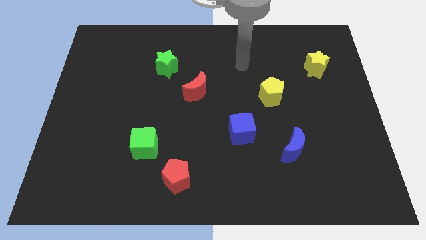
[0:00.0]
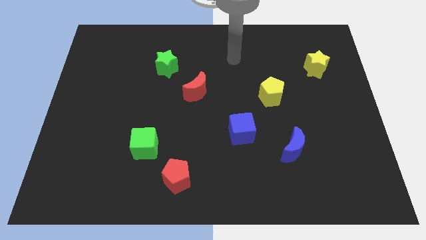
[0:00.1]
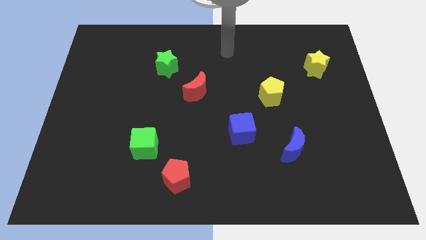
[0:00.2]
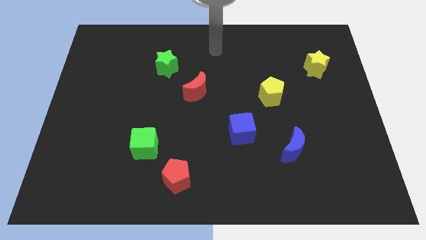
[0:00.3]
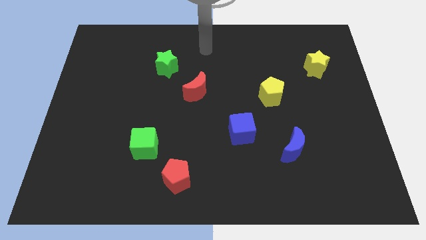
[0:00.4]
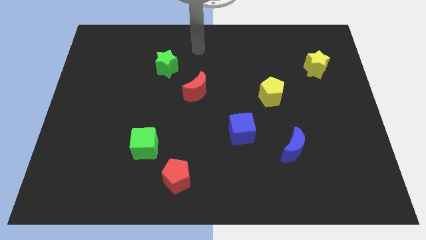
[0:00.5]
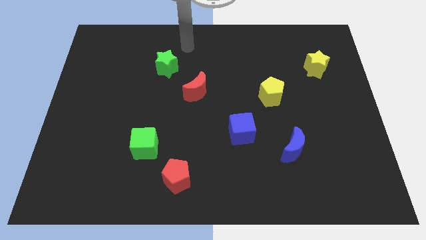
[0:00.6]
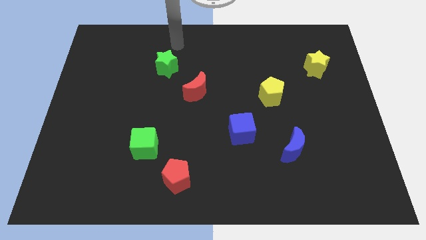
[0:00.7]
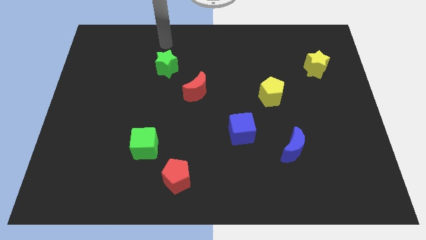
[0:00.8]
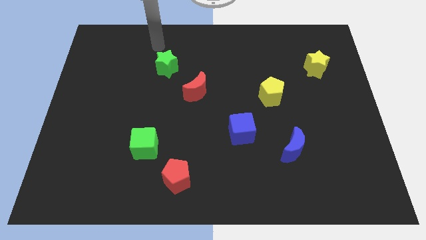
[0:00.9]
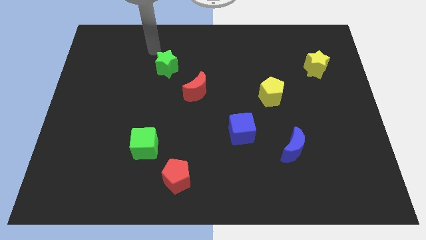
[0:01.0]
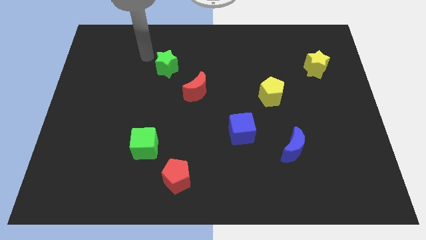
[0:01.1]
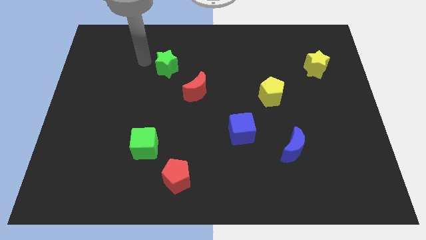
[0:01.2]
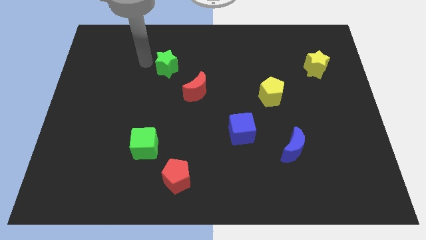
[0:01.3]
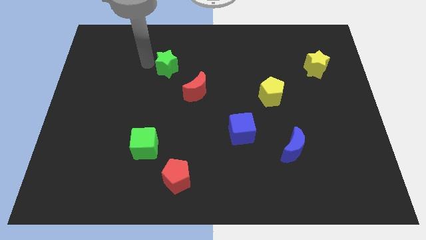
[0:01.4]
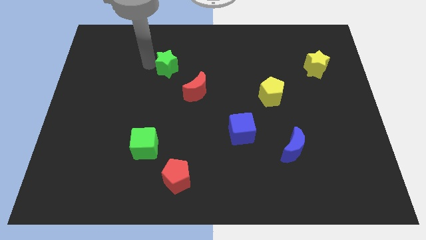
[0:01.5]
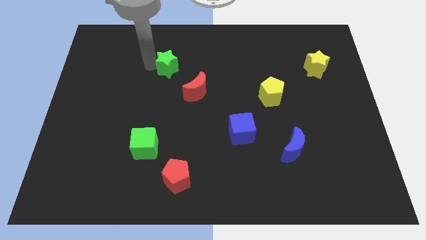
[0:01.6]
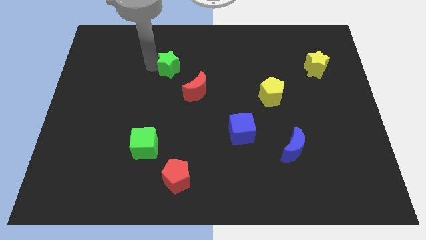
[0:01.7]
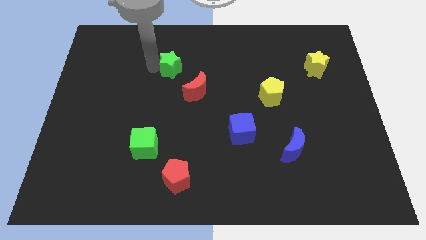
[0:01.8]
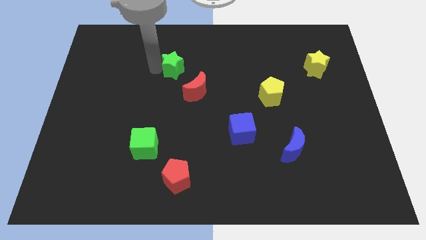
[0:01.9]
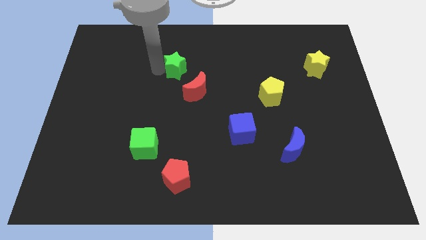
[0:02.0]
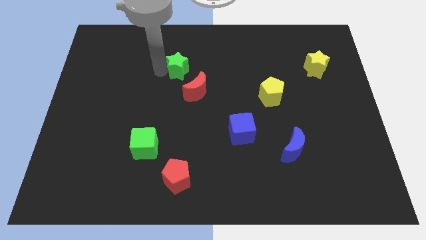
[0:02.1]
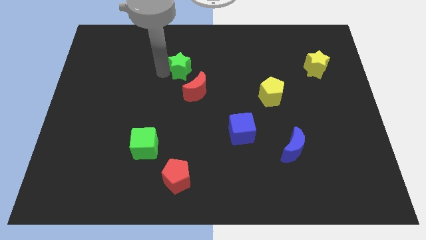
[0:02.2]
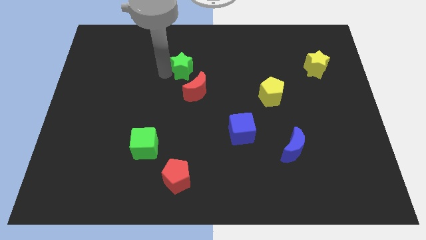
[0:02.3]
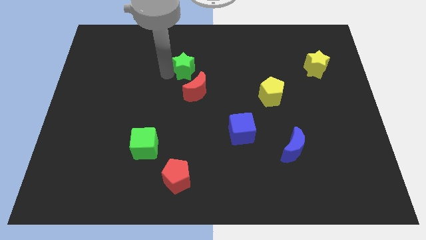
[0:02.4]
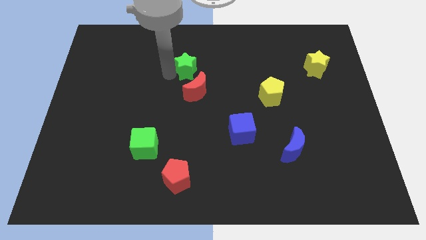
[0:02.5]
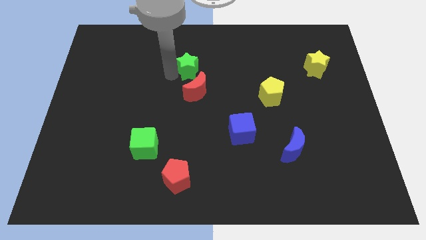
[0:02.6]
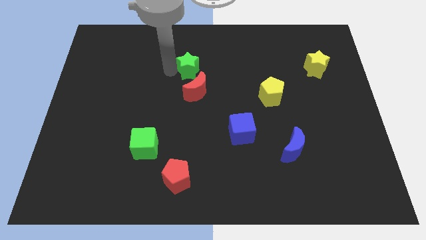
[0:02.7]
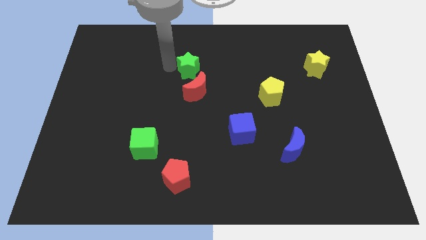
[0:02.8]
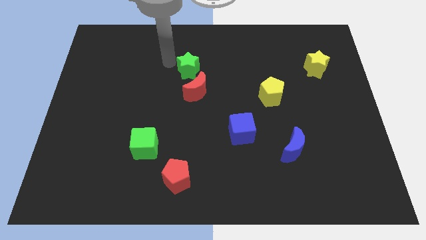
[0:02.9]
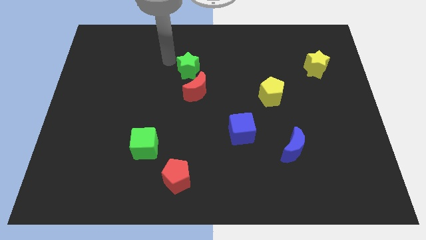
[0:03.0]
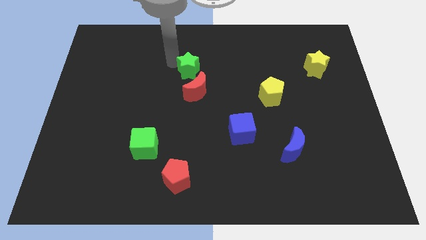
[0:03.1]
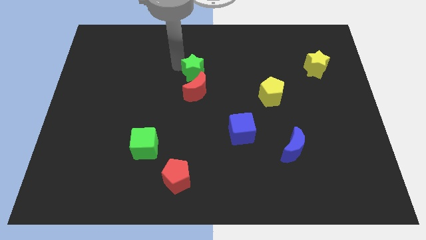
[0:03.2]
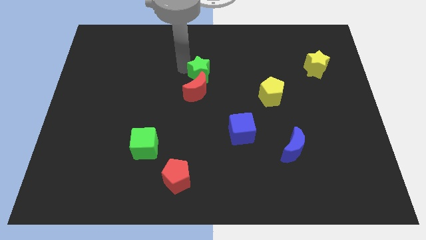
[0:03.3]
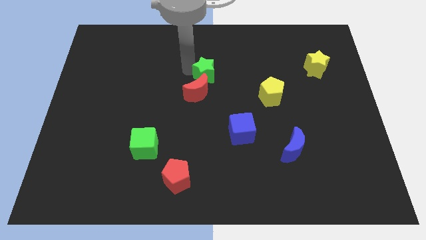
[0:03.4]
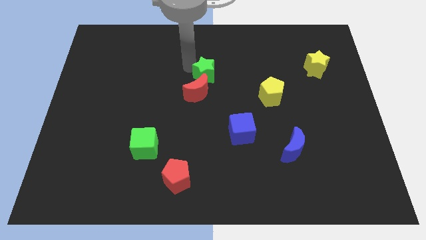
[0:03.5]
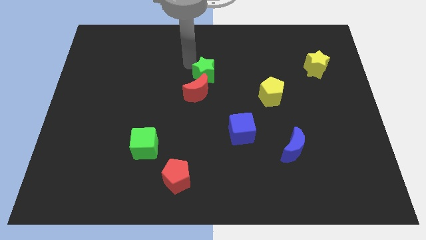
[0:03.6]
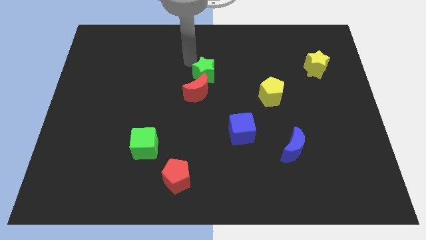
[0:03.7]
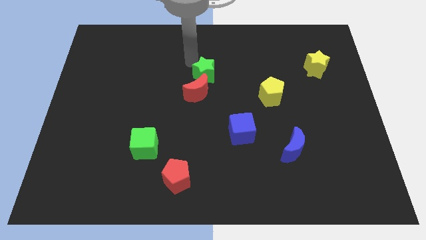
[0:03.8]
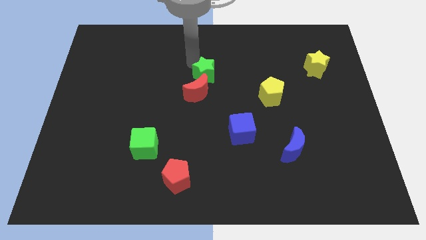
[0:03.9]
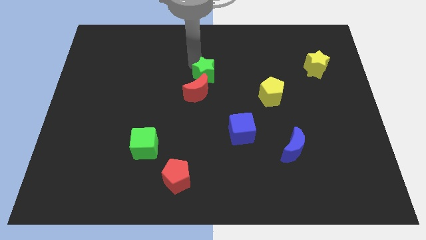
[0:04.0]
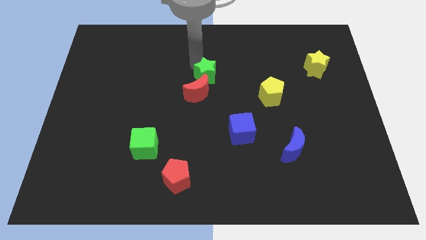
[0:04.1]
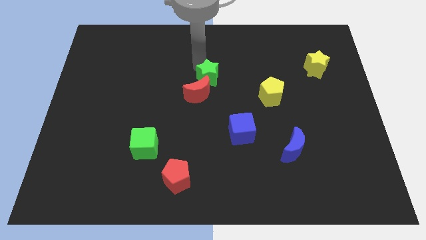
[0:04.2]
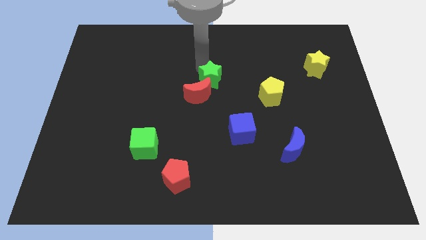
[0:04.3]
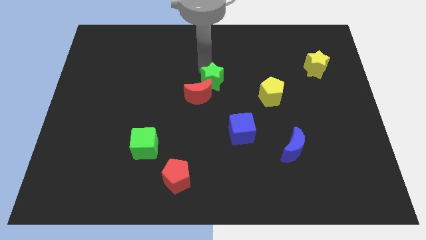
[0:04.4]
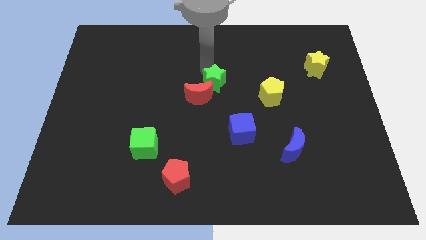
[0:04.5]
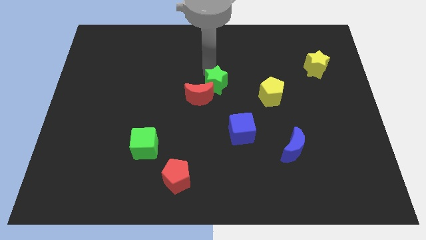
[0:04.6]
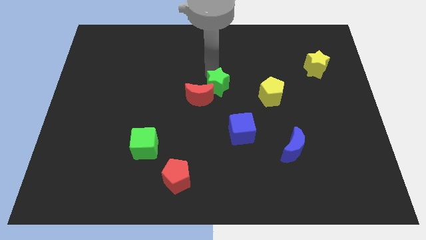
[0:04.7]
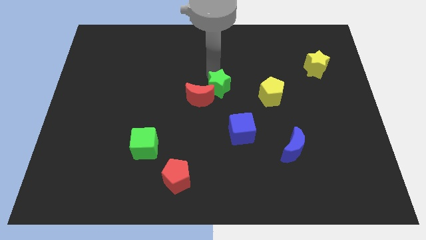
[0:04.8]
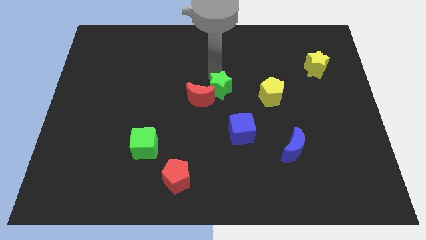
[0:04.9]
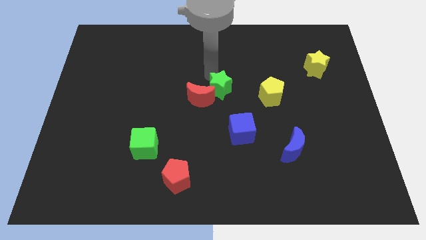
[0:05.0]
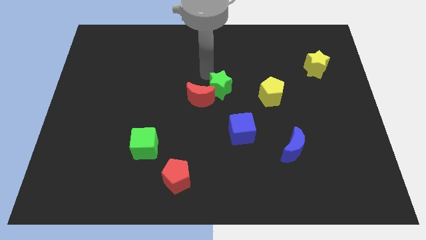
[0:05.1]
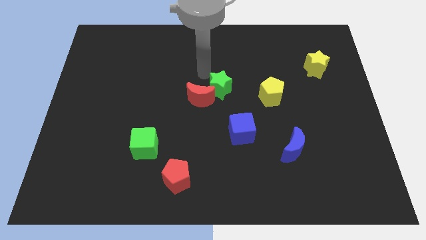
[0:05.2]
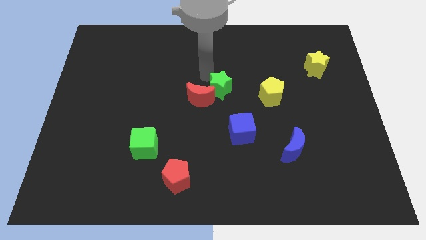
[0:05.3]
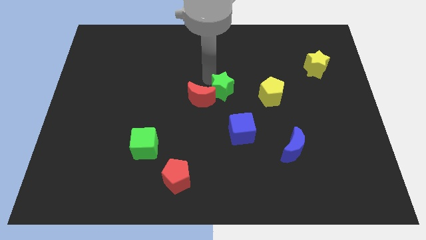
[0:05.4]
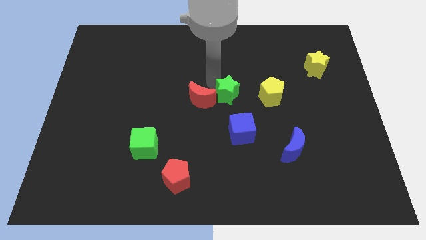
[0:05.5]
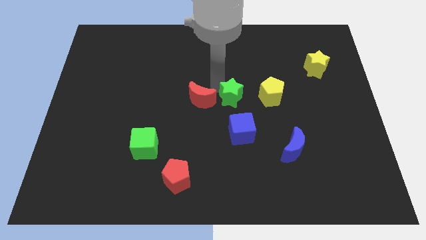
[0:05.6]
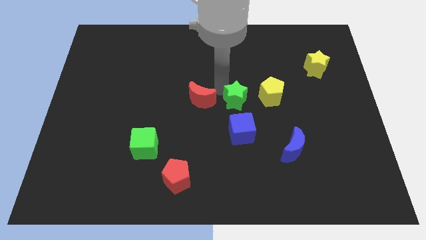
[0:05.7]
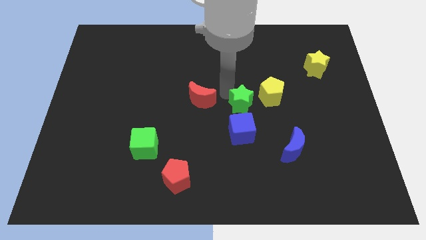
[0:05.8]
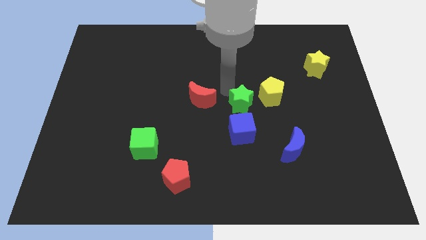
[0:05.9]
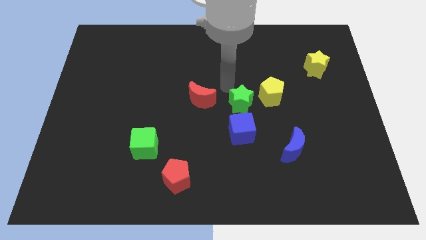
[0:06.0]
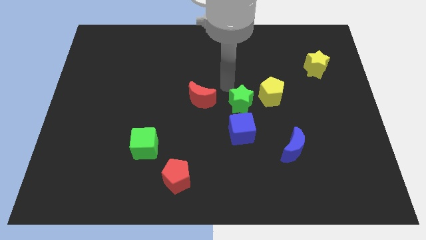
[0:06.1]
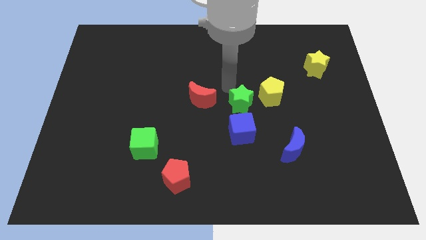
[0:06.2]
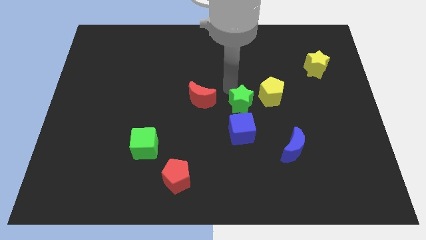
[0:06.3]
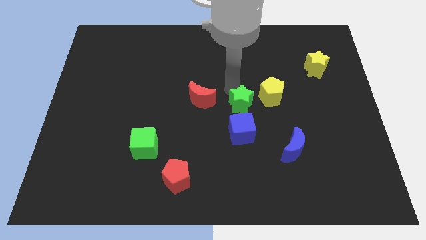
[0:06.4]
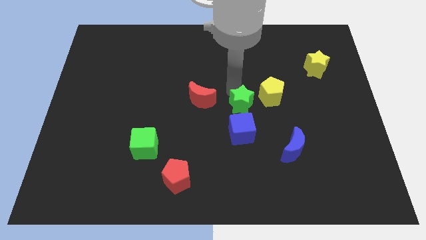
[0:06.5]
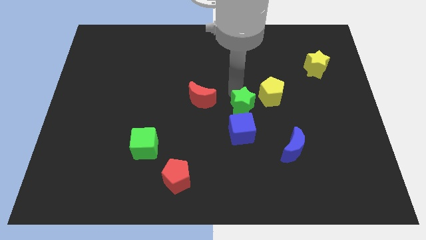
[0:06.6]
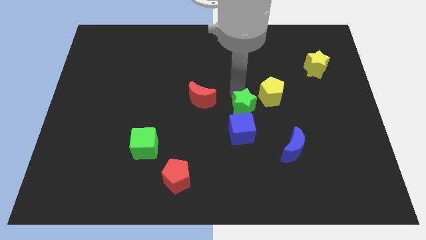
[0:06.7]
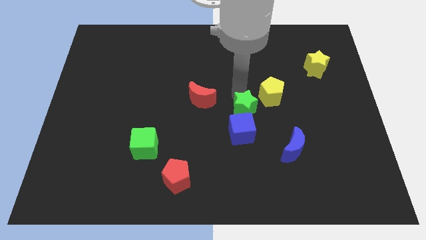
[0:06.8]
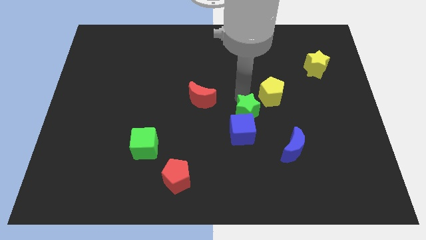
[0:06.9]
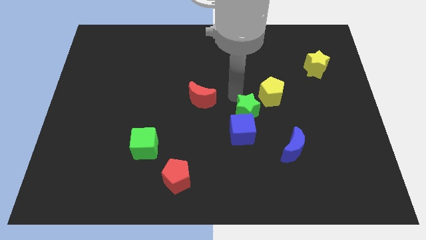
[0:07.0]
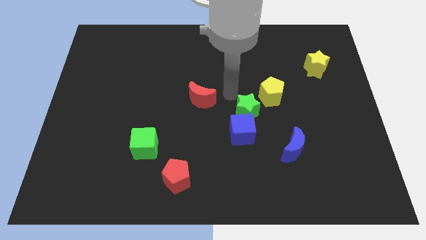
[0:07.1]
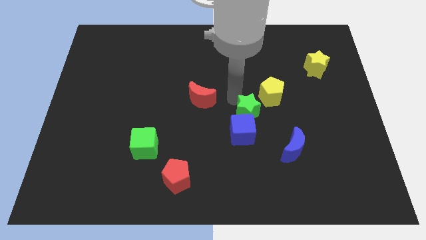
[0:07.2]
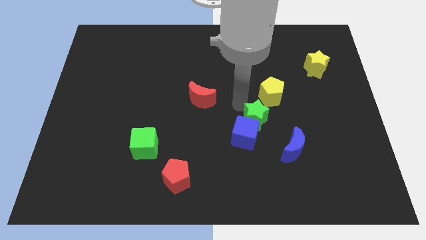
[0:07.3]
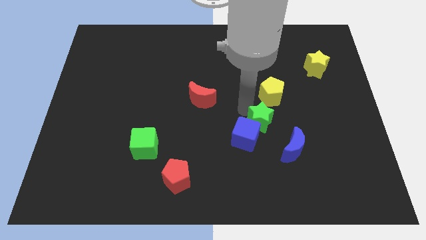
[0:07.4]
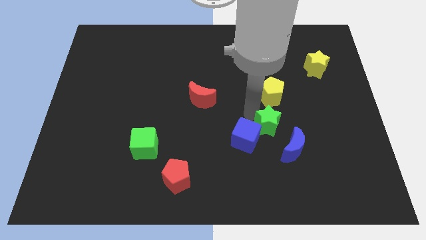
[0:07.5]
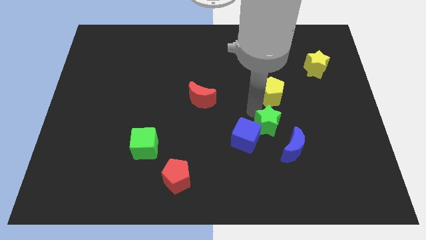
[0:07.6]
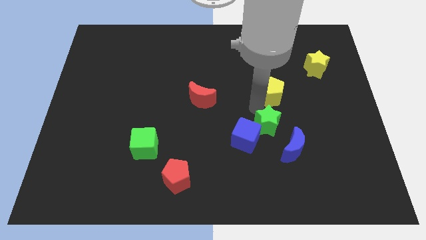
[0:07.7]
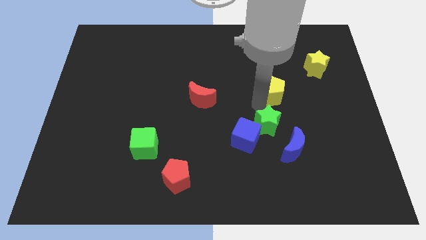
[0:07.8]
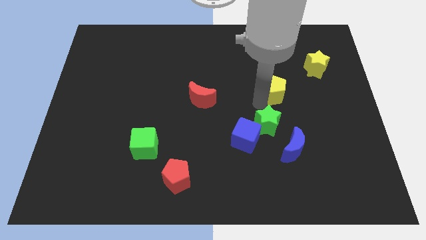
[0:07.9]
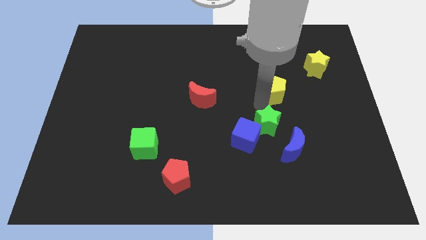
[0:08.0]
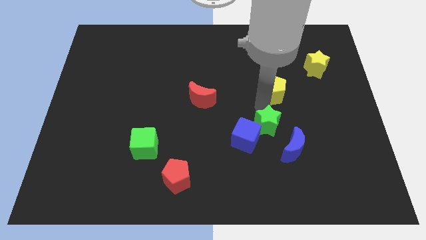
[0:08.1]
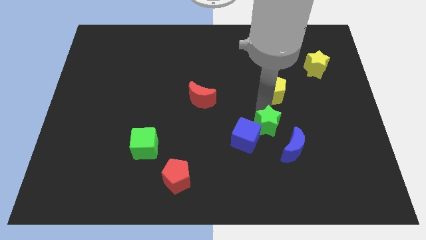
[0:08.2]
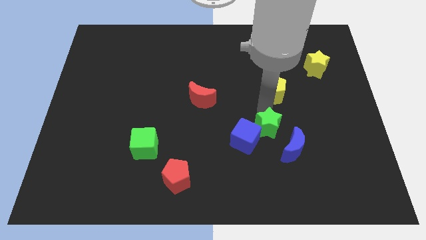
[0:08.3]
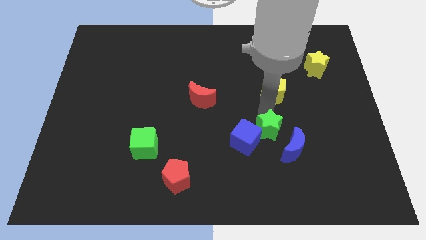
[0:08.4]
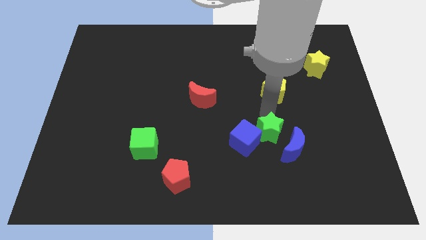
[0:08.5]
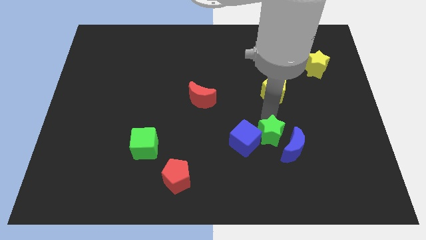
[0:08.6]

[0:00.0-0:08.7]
put the green star towards the blue moon
